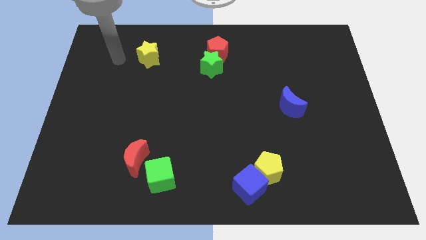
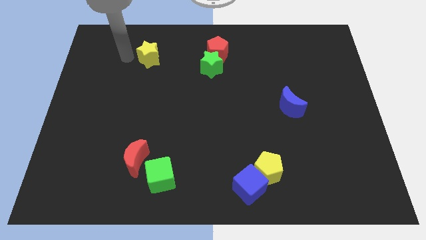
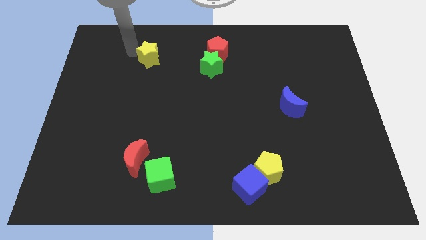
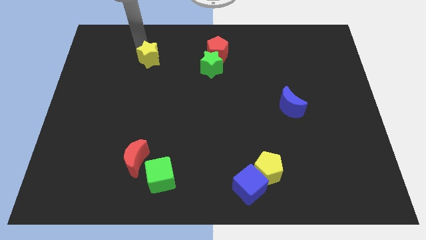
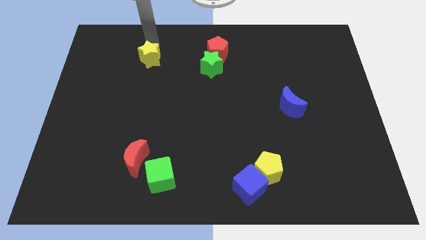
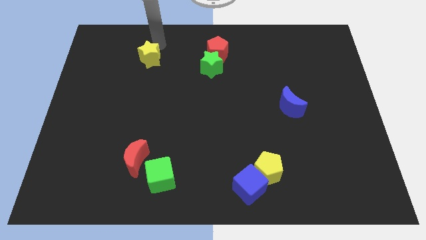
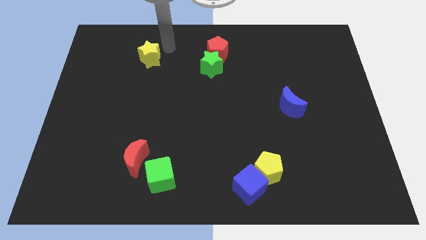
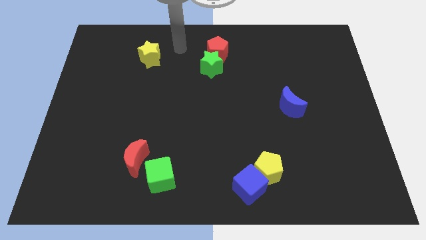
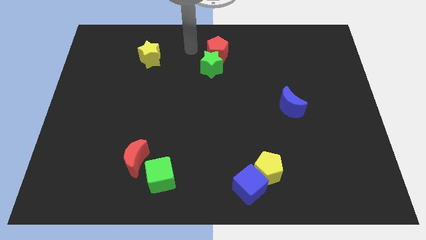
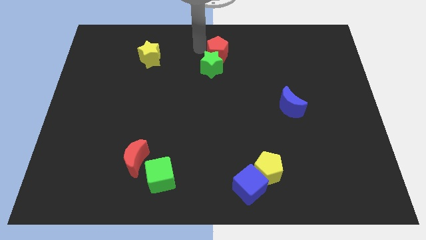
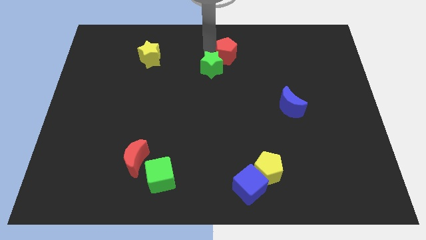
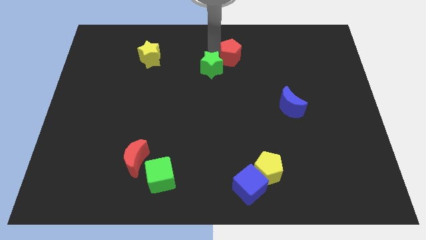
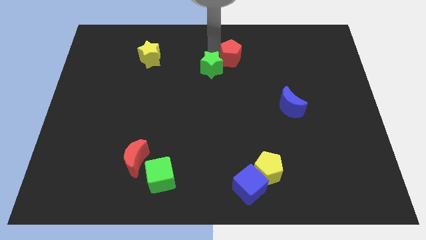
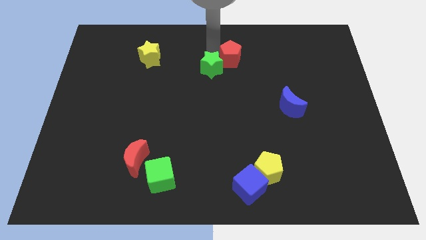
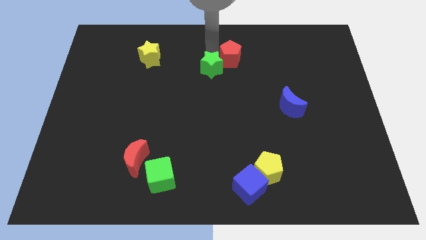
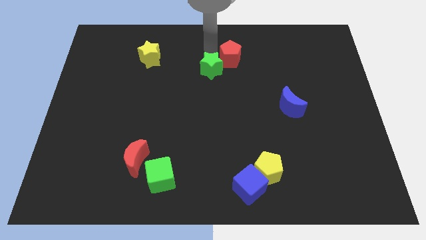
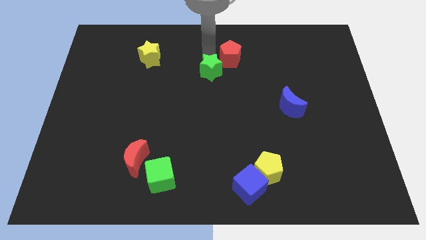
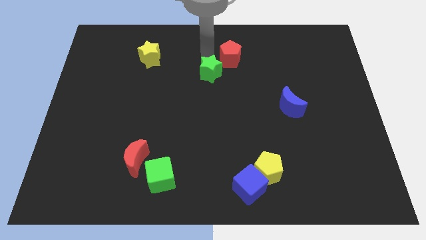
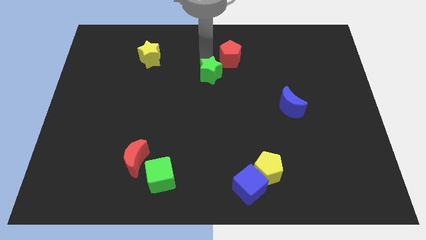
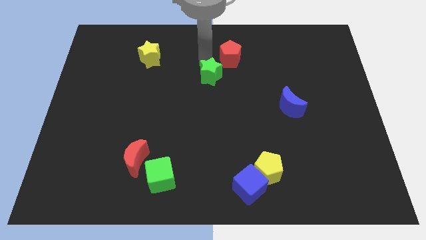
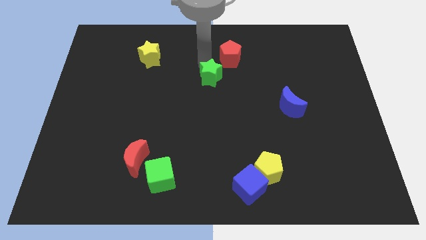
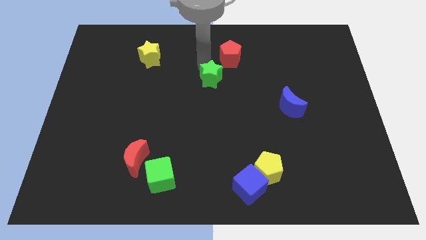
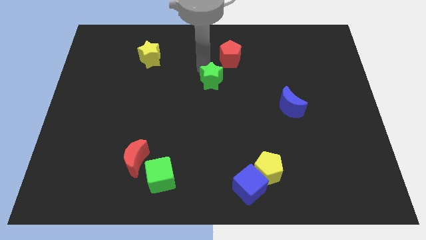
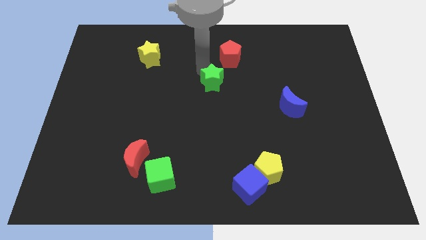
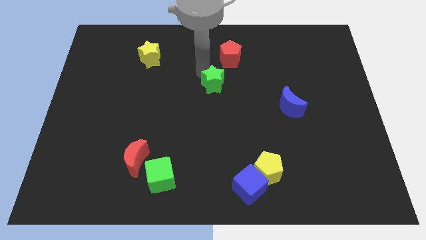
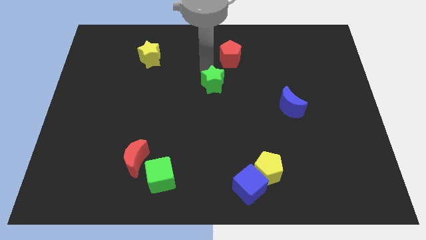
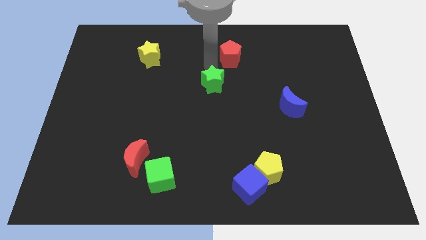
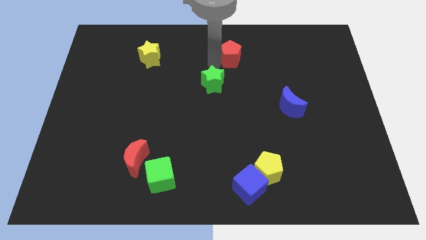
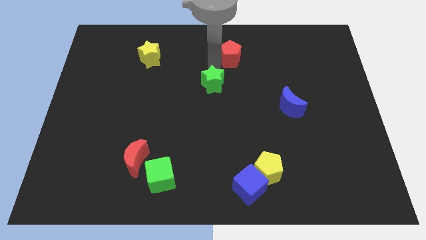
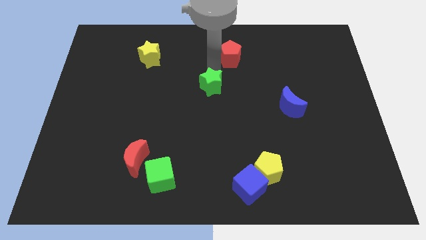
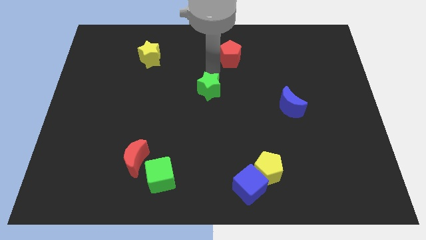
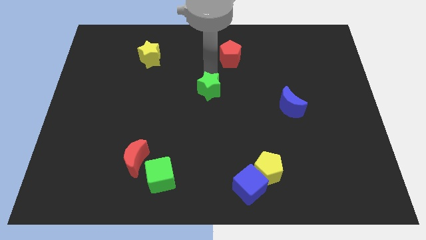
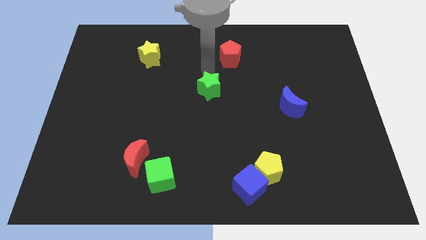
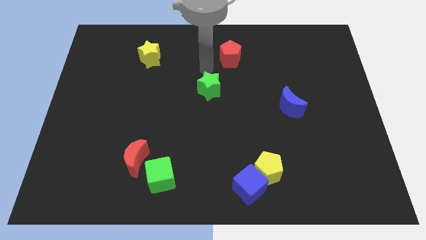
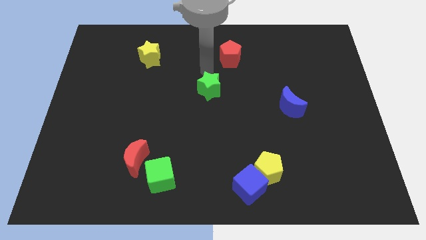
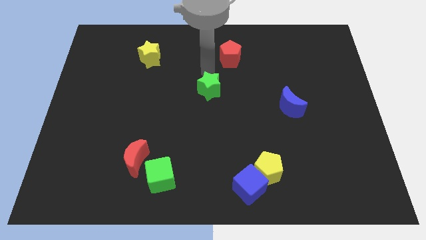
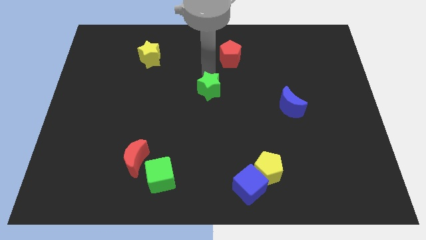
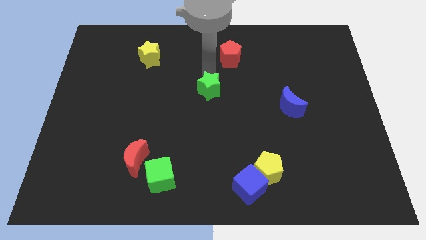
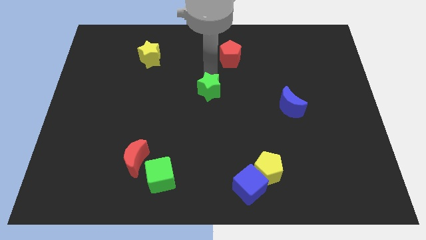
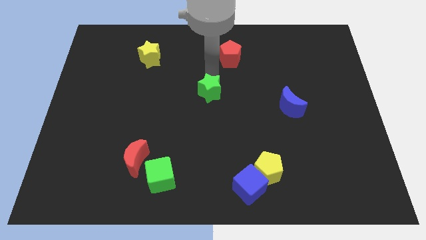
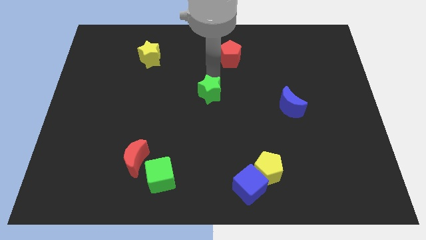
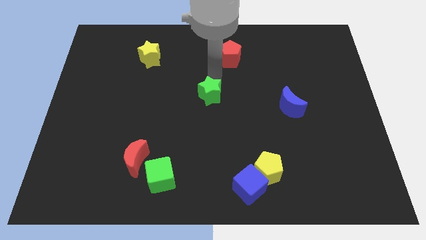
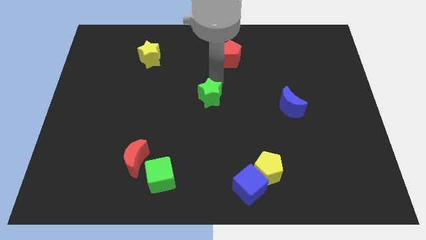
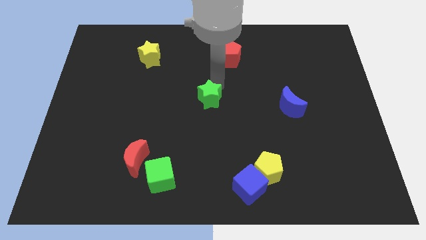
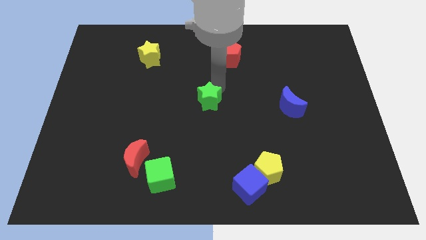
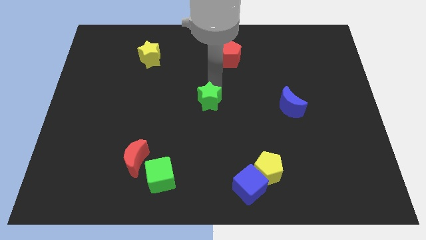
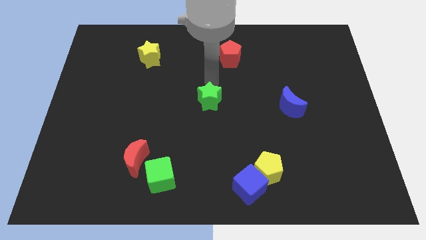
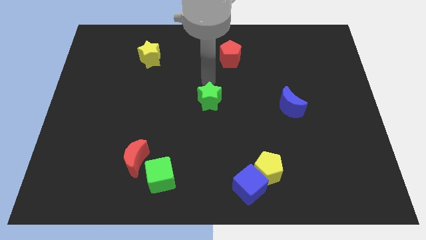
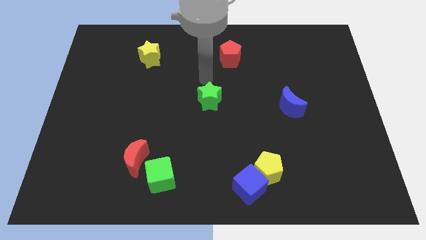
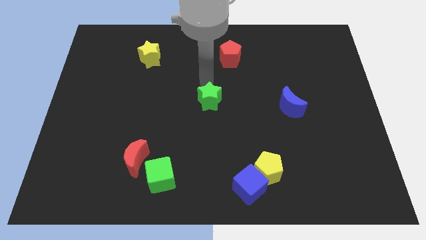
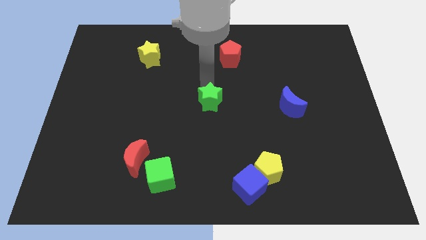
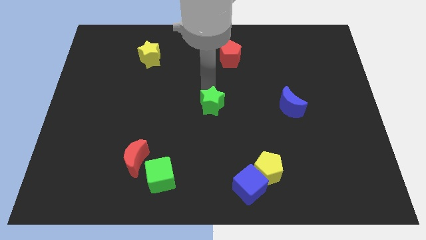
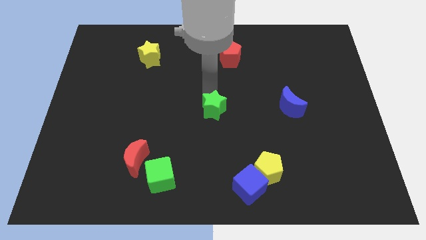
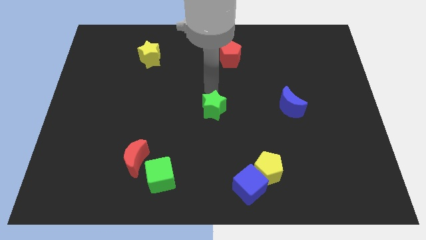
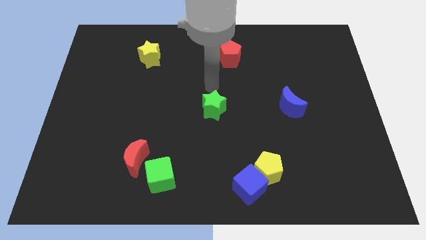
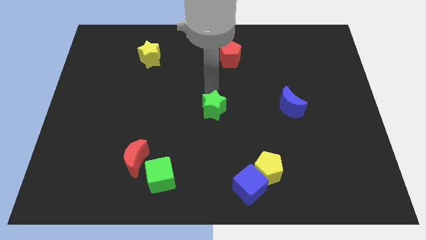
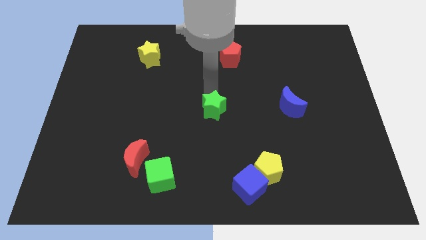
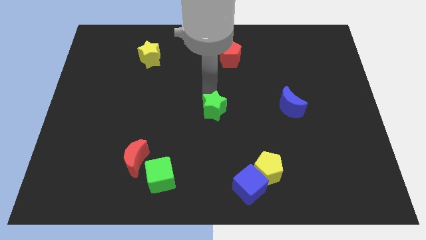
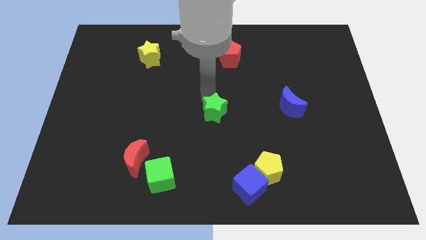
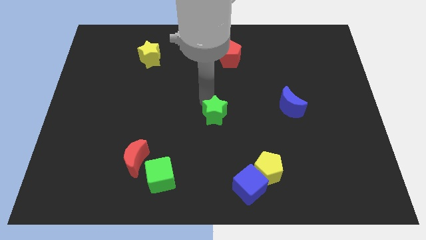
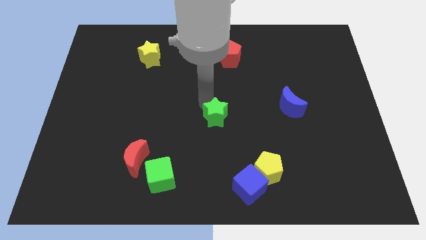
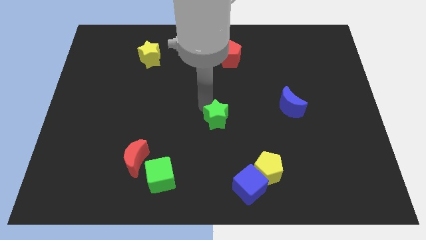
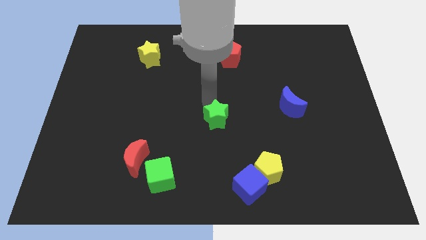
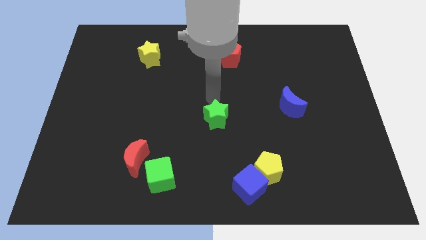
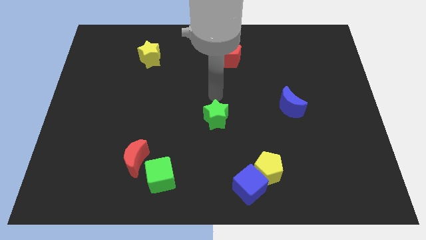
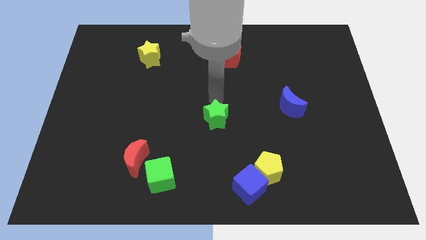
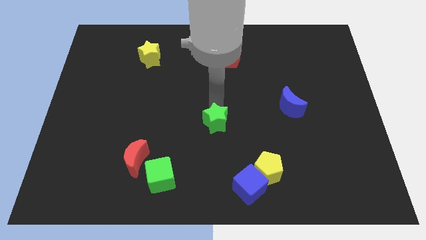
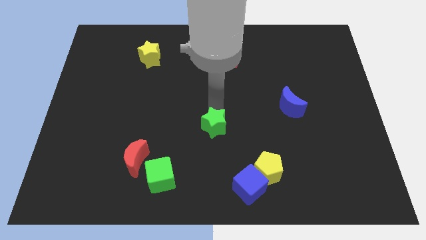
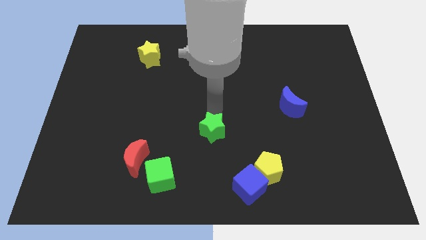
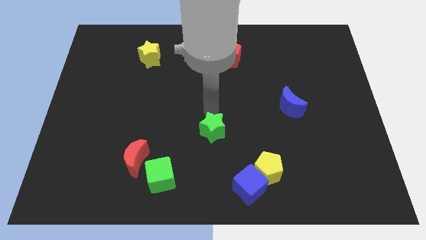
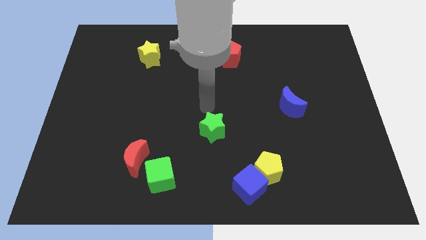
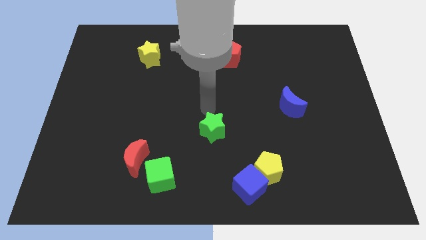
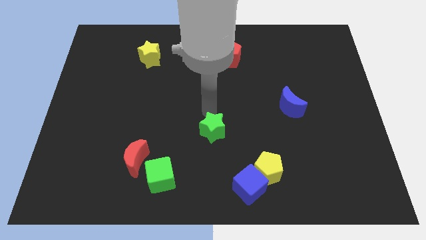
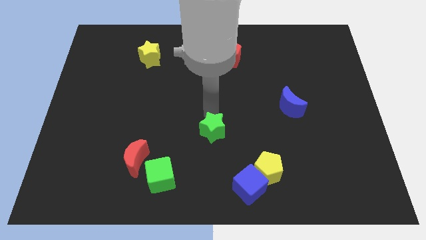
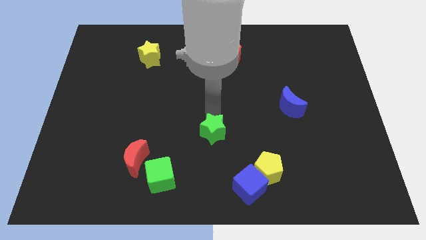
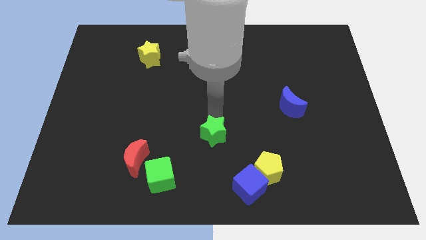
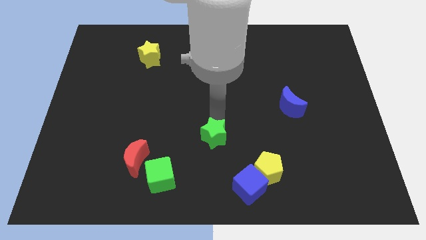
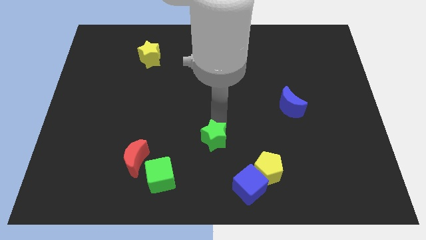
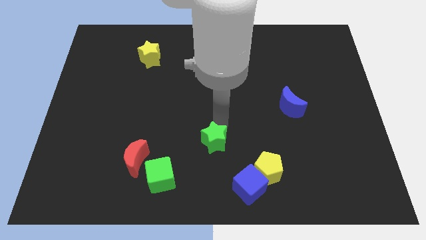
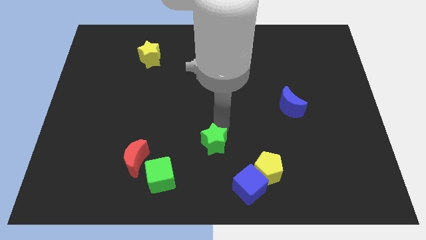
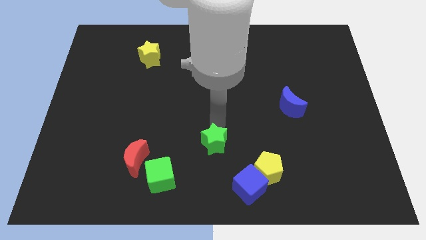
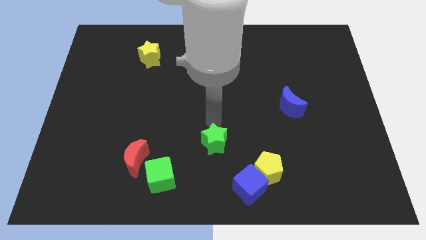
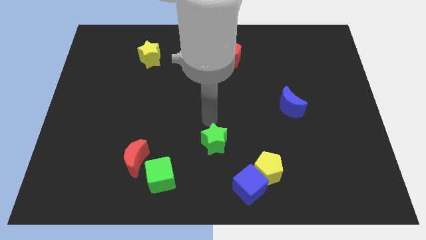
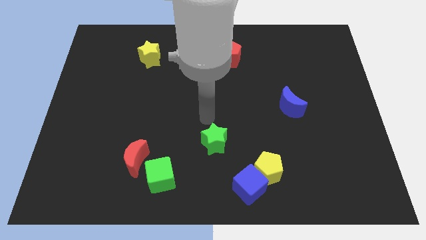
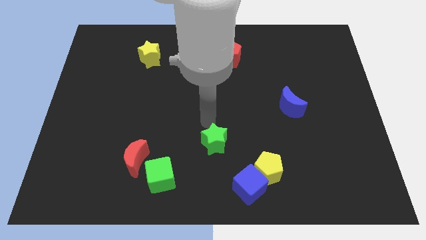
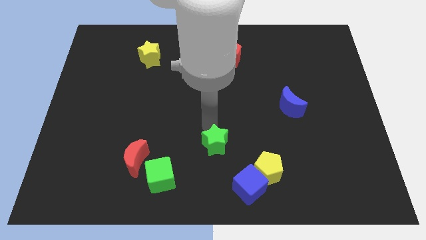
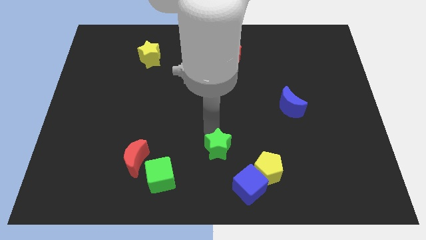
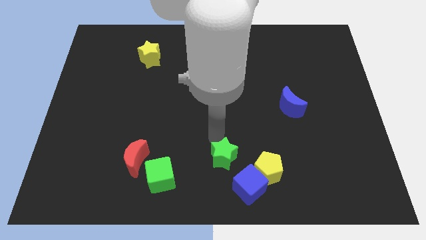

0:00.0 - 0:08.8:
push the green star to the bottom side
